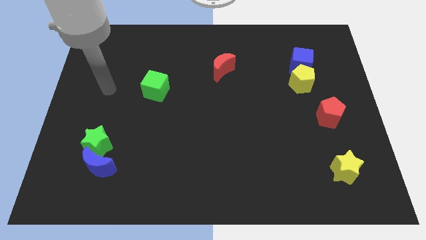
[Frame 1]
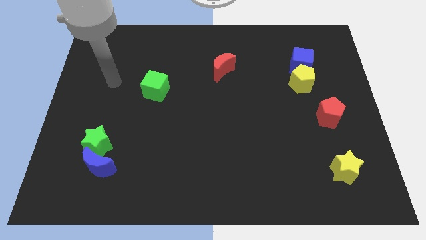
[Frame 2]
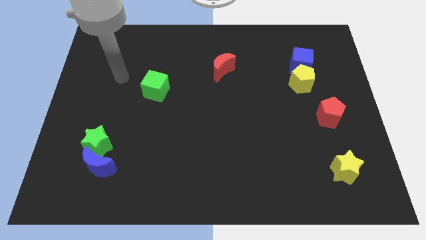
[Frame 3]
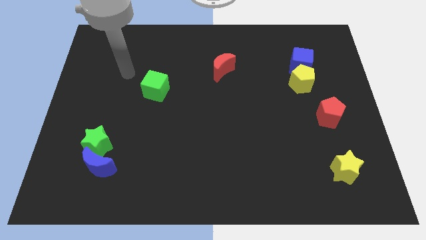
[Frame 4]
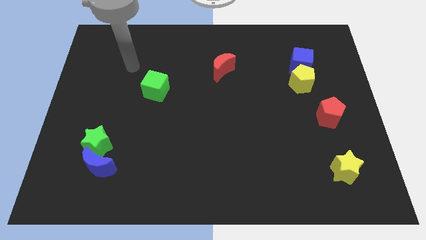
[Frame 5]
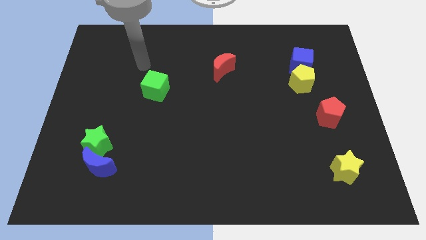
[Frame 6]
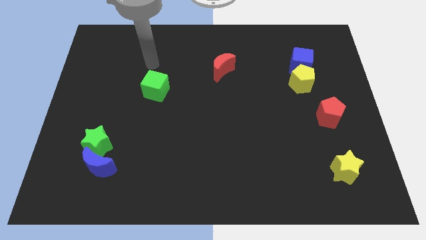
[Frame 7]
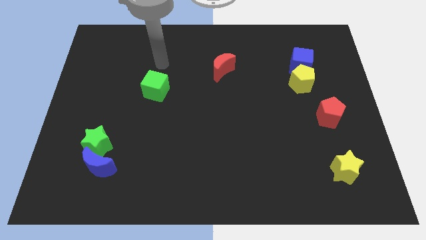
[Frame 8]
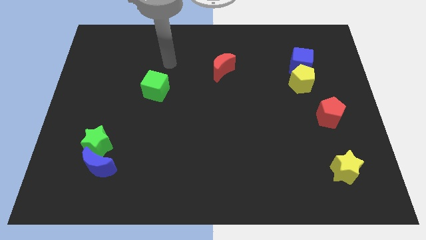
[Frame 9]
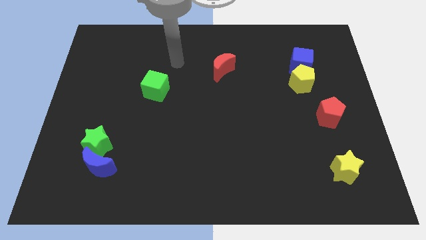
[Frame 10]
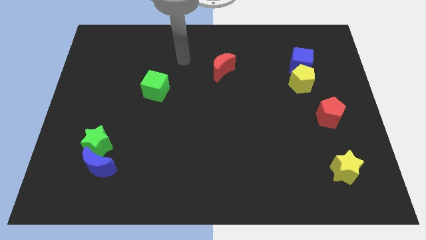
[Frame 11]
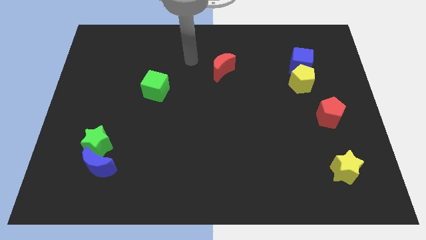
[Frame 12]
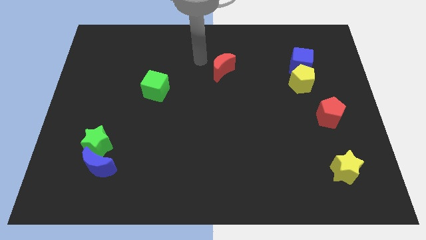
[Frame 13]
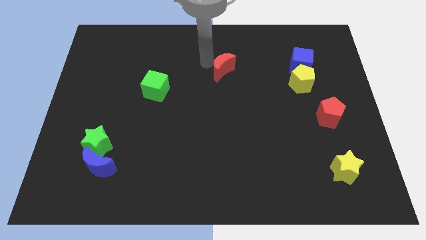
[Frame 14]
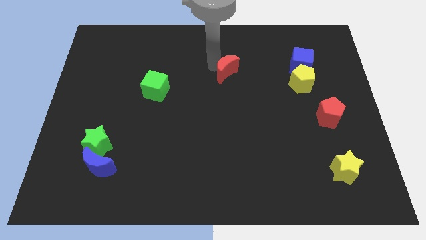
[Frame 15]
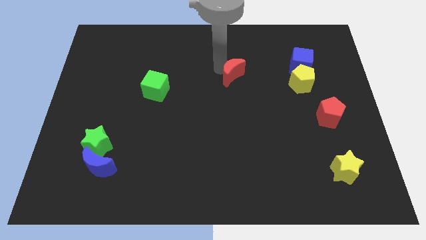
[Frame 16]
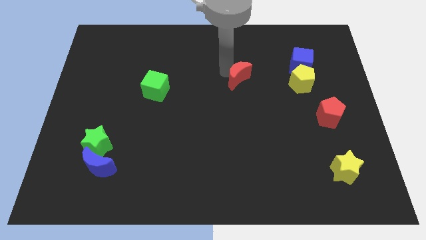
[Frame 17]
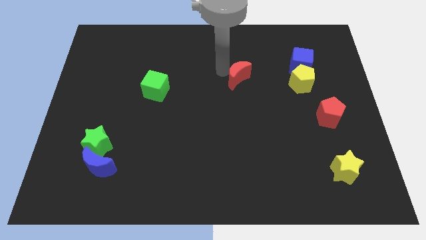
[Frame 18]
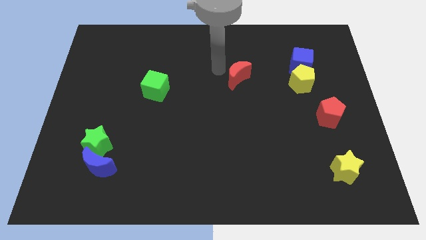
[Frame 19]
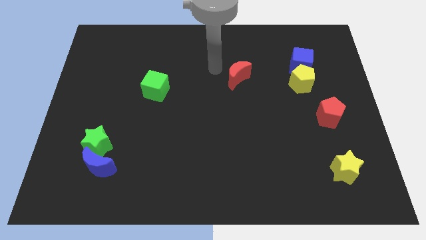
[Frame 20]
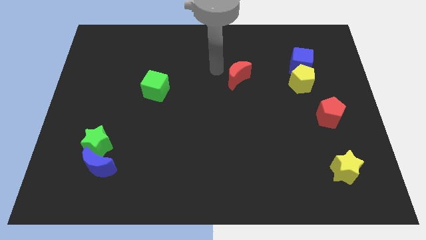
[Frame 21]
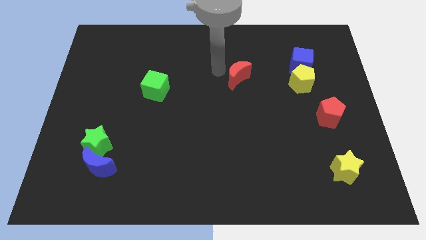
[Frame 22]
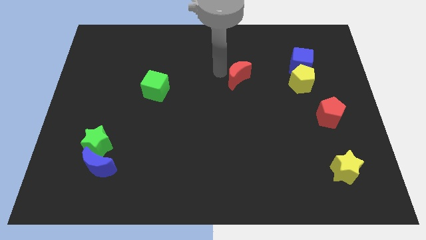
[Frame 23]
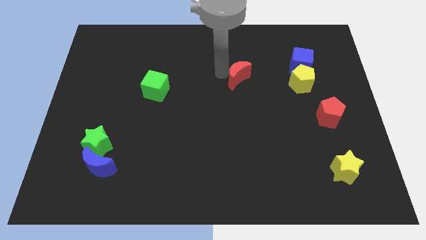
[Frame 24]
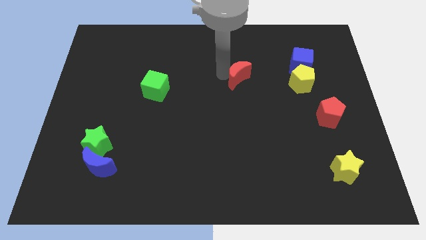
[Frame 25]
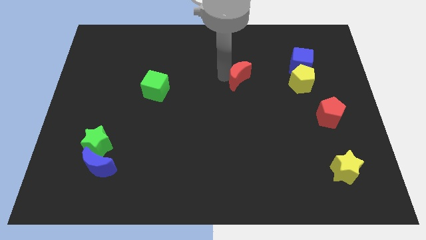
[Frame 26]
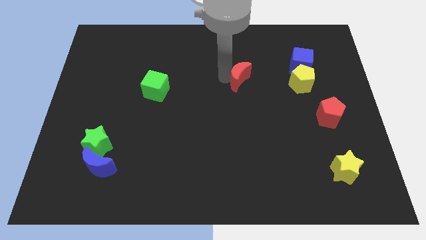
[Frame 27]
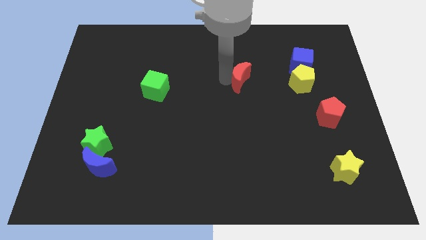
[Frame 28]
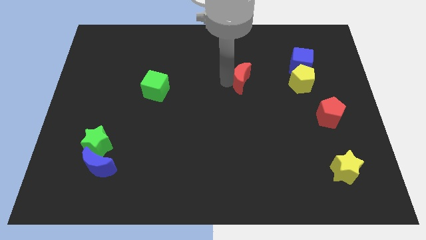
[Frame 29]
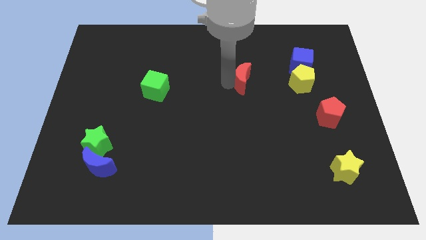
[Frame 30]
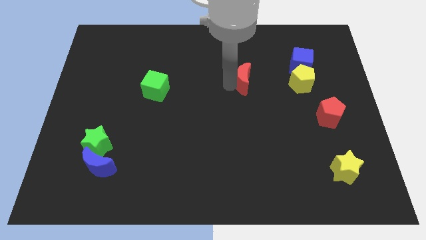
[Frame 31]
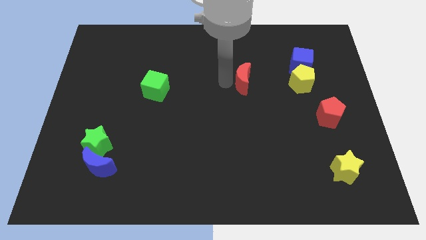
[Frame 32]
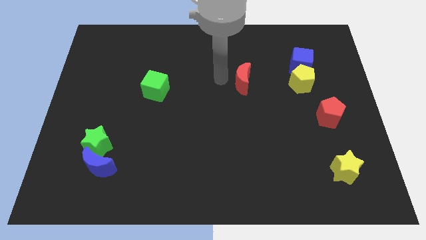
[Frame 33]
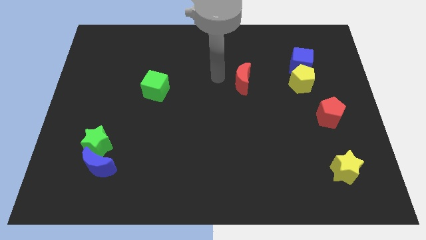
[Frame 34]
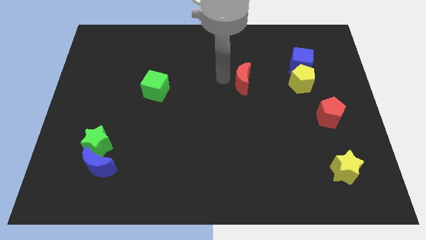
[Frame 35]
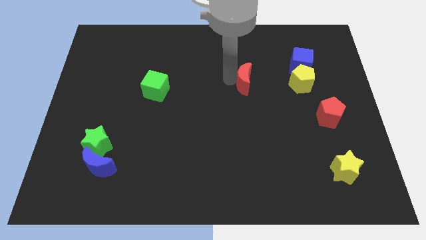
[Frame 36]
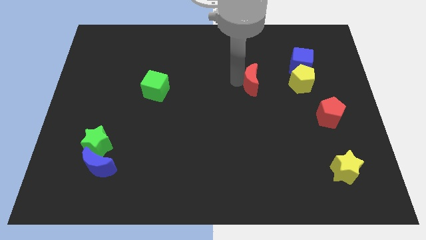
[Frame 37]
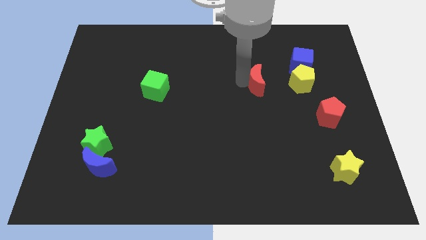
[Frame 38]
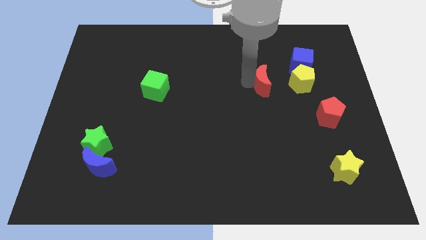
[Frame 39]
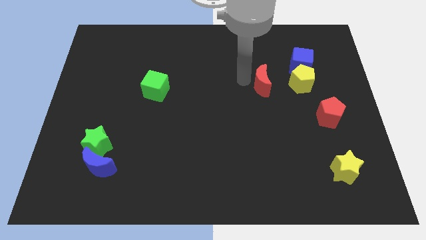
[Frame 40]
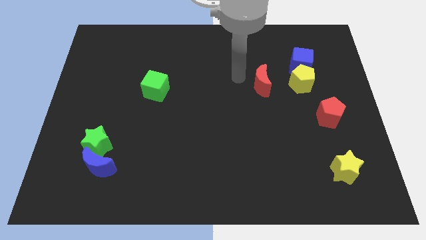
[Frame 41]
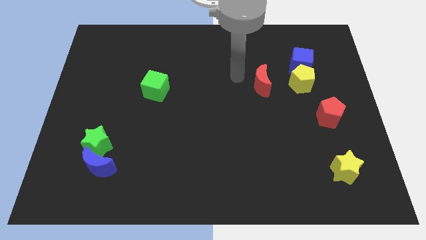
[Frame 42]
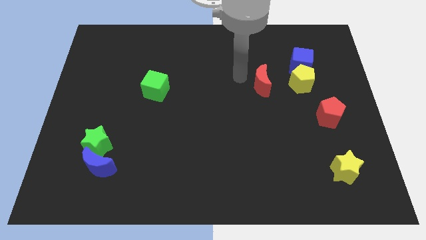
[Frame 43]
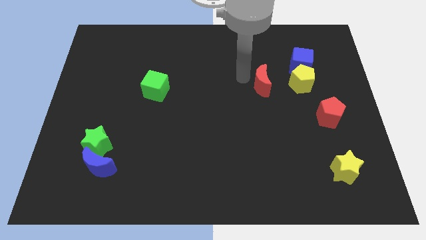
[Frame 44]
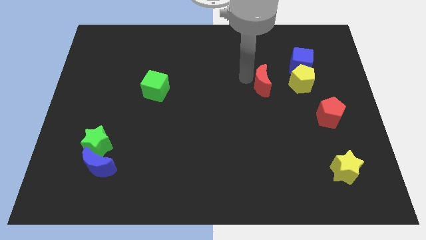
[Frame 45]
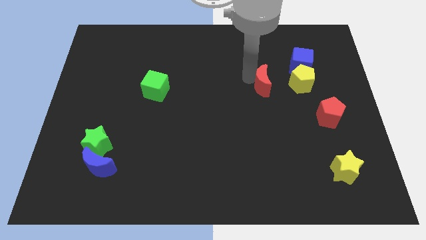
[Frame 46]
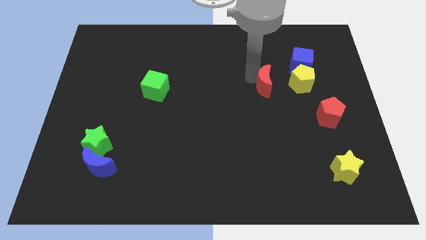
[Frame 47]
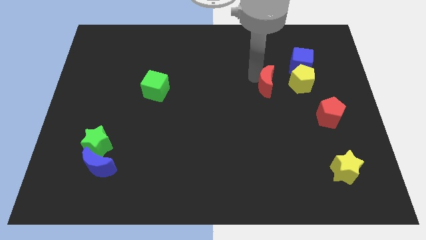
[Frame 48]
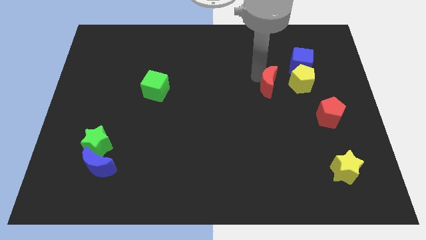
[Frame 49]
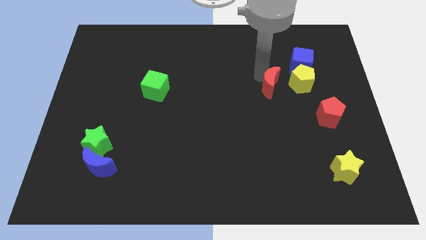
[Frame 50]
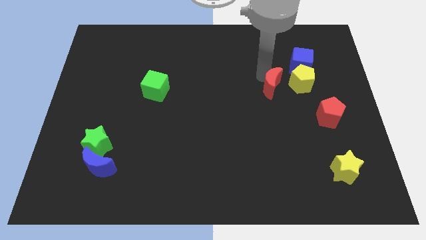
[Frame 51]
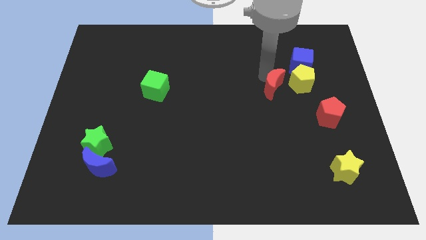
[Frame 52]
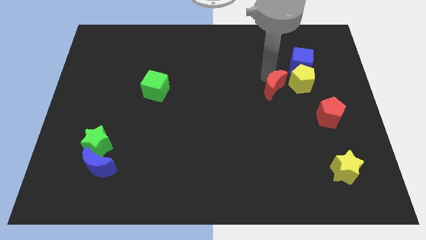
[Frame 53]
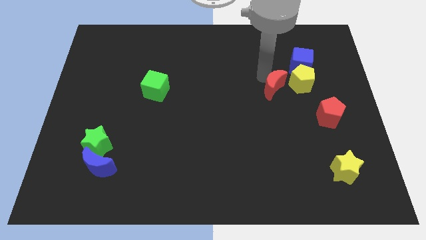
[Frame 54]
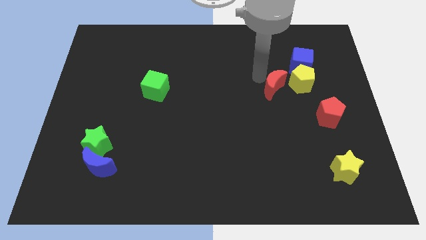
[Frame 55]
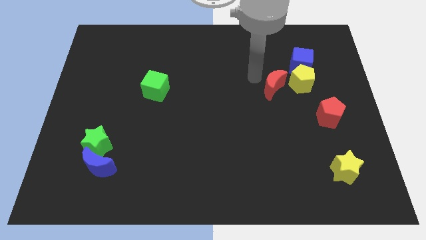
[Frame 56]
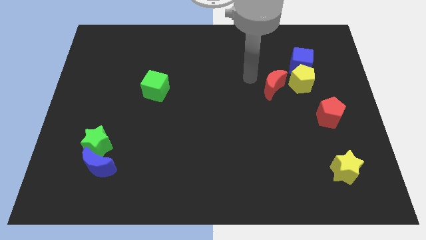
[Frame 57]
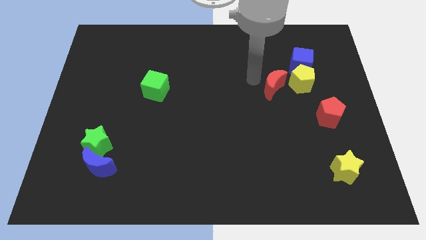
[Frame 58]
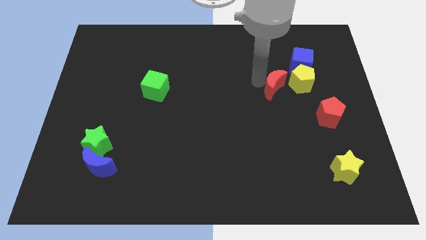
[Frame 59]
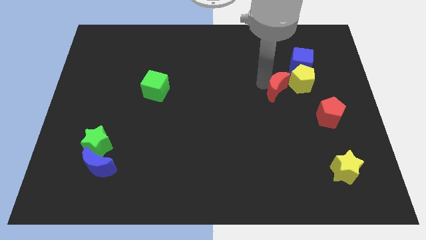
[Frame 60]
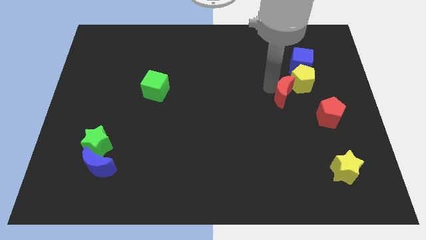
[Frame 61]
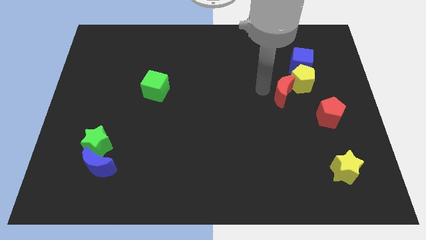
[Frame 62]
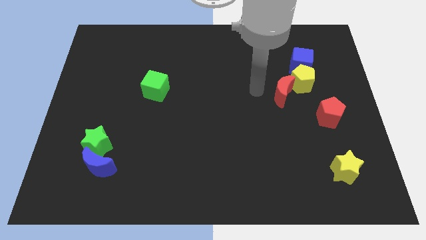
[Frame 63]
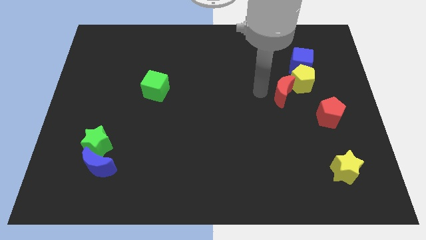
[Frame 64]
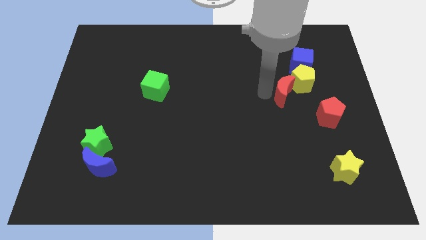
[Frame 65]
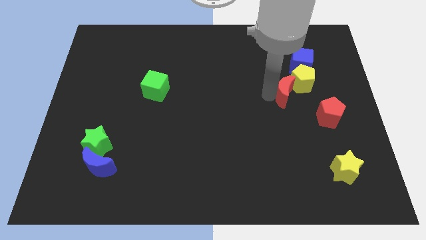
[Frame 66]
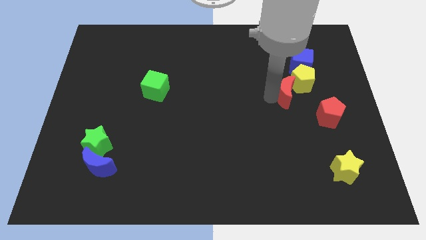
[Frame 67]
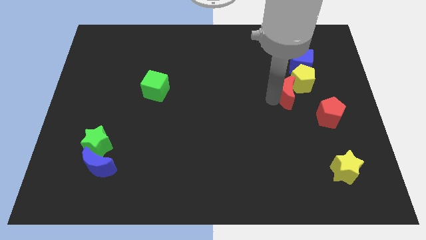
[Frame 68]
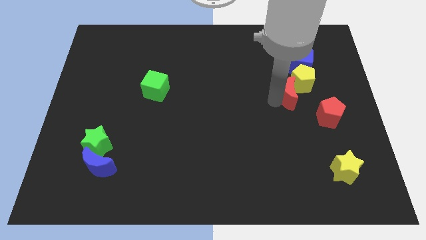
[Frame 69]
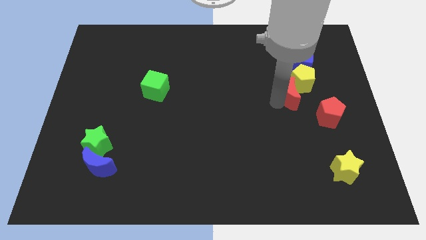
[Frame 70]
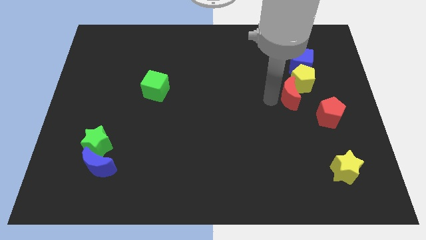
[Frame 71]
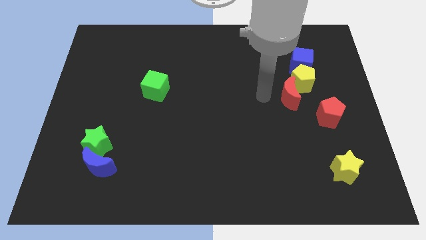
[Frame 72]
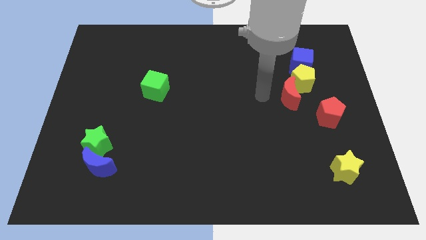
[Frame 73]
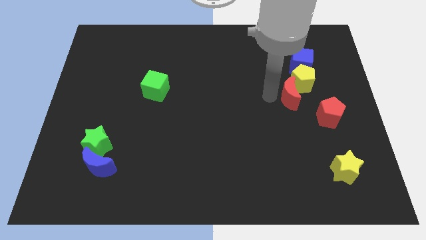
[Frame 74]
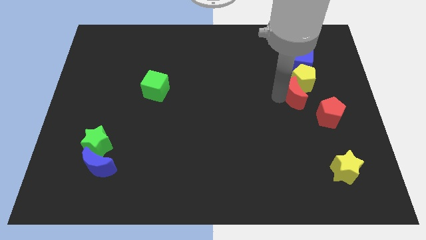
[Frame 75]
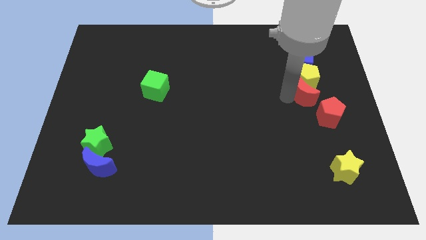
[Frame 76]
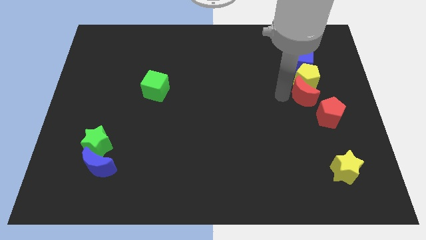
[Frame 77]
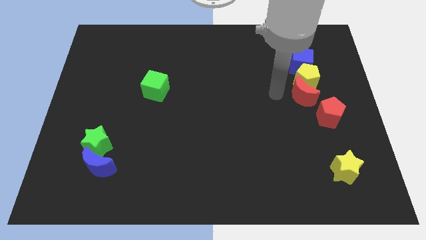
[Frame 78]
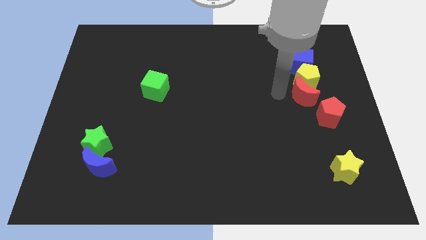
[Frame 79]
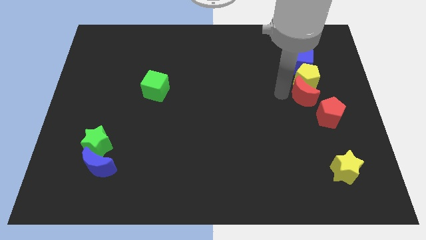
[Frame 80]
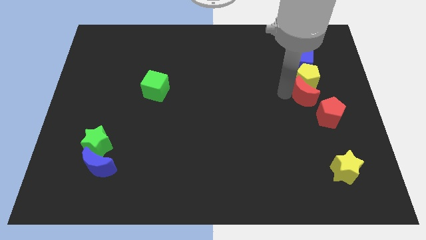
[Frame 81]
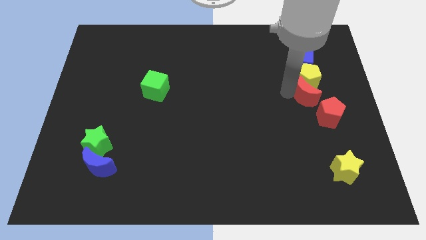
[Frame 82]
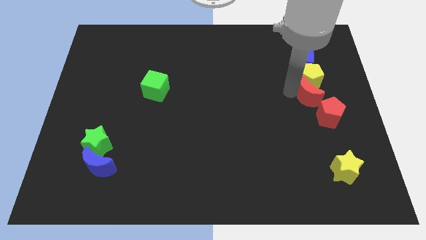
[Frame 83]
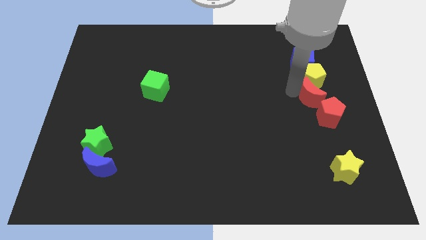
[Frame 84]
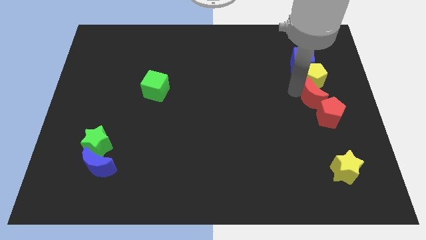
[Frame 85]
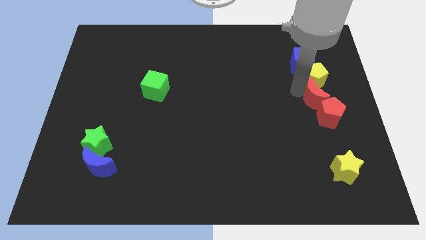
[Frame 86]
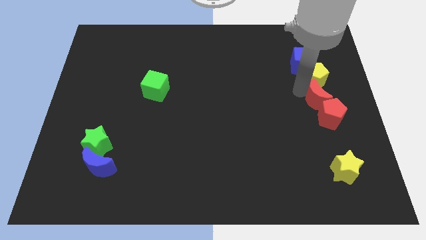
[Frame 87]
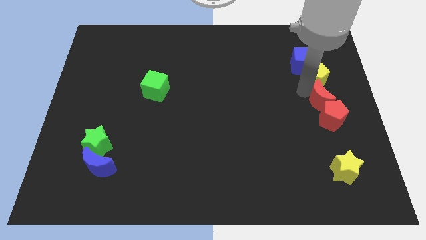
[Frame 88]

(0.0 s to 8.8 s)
move the red moon to the right side
